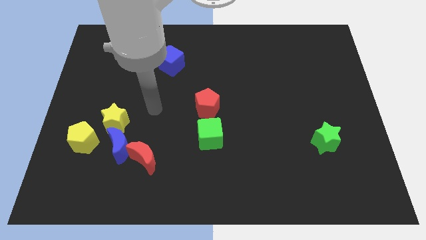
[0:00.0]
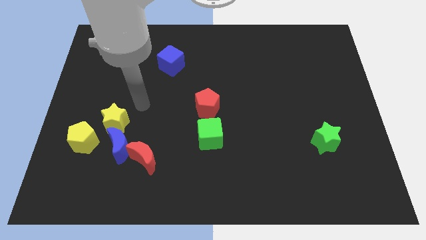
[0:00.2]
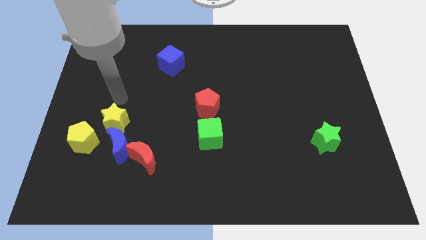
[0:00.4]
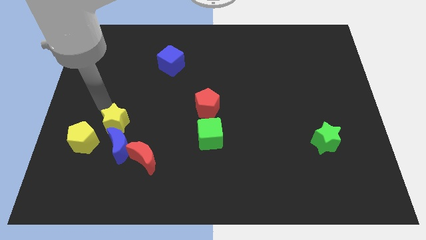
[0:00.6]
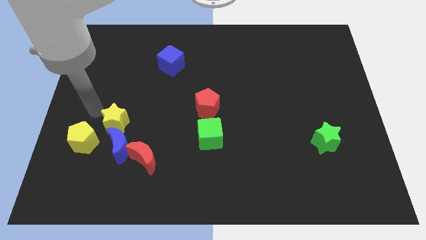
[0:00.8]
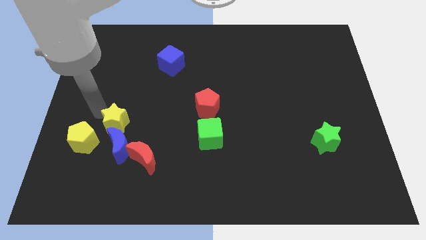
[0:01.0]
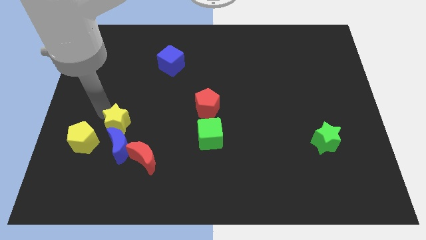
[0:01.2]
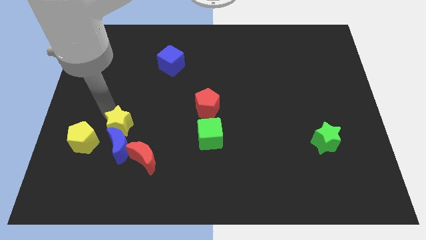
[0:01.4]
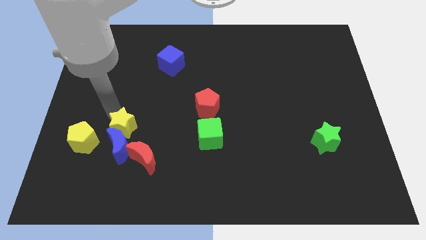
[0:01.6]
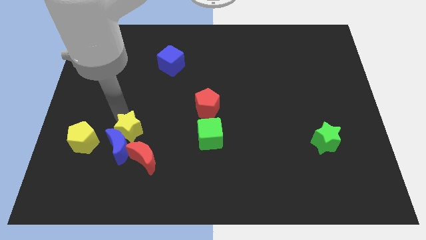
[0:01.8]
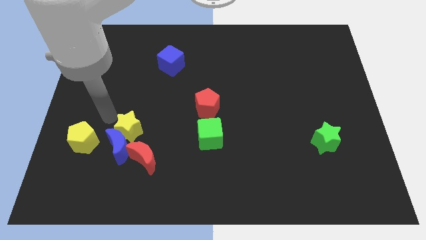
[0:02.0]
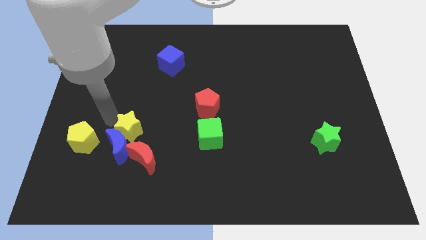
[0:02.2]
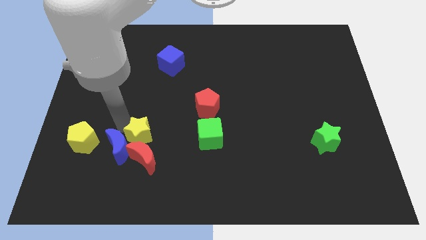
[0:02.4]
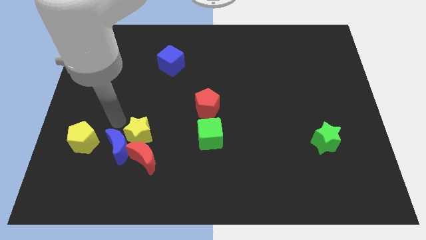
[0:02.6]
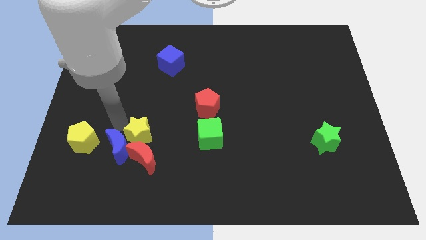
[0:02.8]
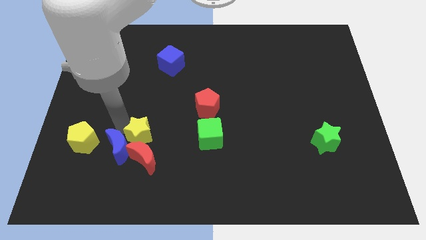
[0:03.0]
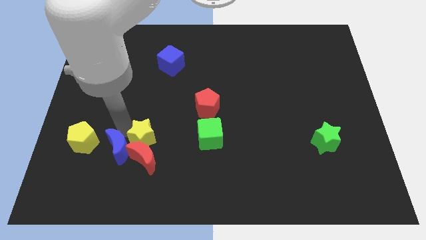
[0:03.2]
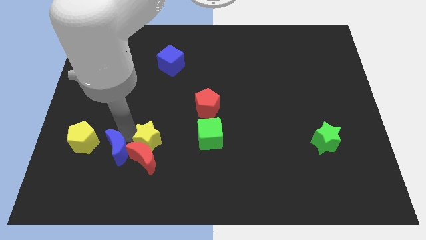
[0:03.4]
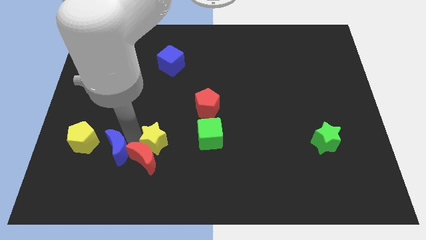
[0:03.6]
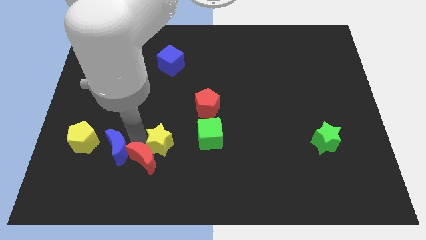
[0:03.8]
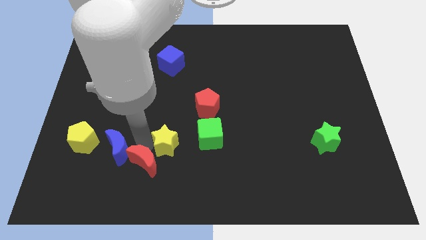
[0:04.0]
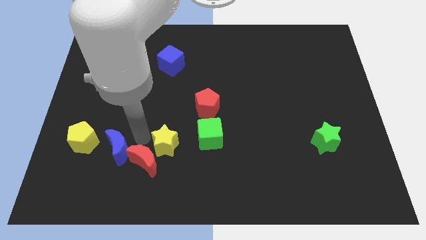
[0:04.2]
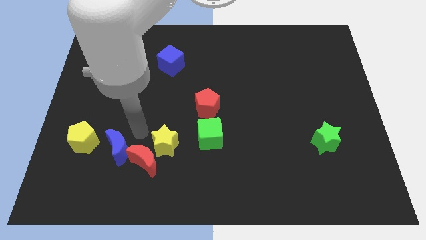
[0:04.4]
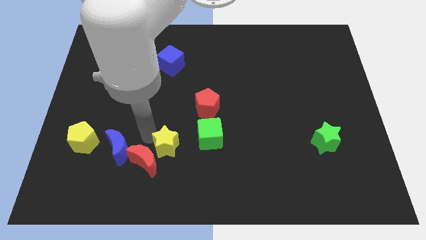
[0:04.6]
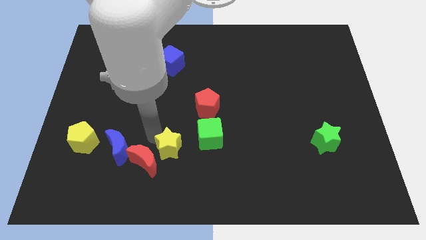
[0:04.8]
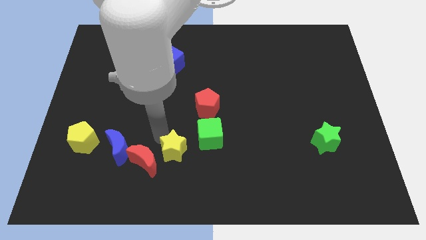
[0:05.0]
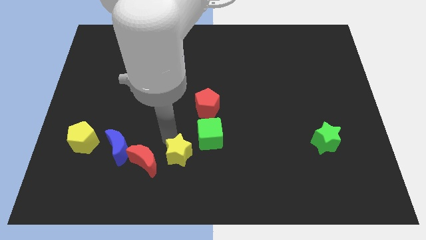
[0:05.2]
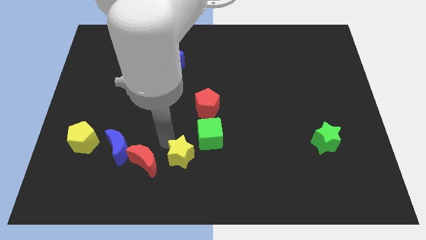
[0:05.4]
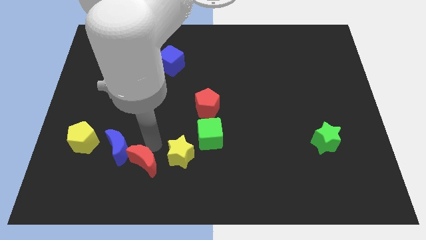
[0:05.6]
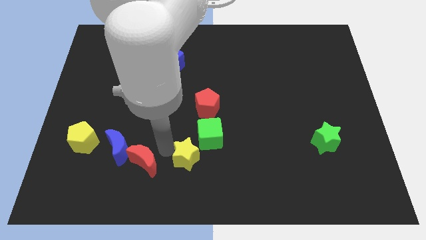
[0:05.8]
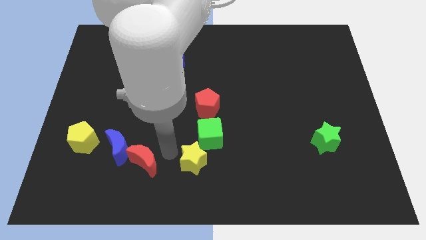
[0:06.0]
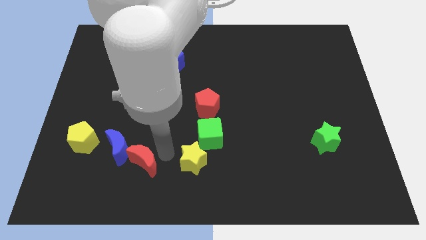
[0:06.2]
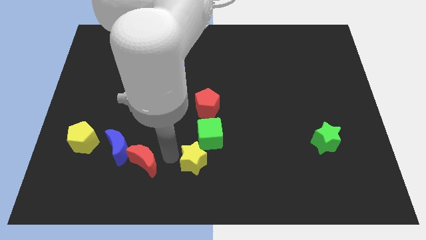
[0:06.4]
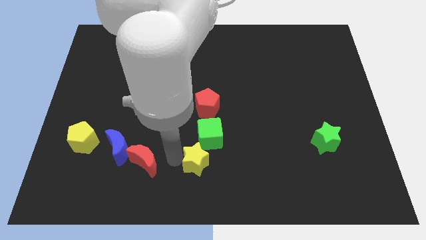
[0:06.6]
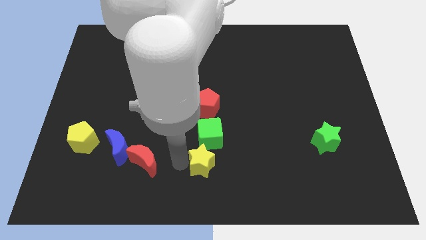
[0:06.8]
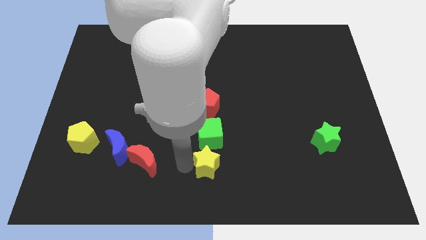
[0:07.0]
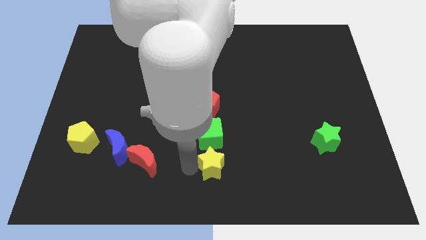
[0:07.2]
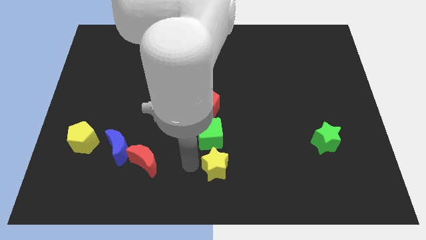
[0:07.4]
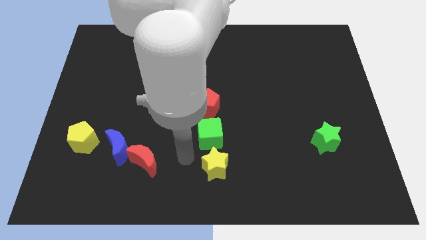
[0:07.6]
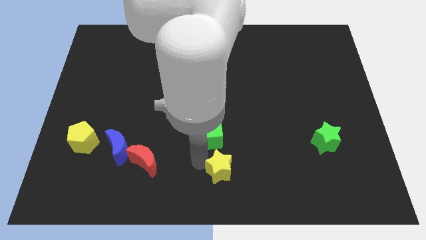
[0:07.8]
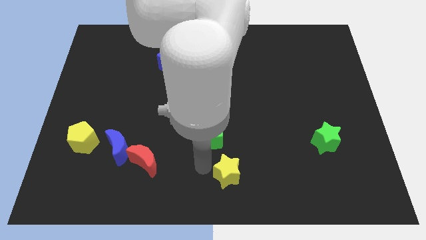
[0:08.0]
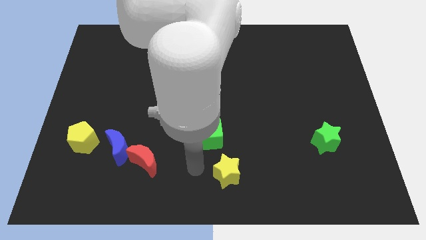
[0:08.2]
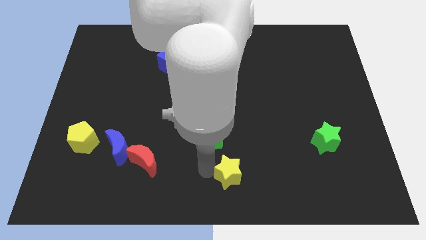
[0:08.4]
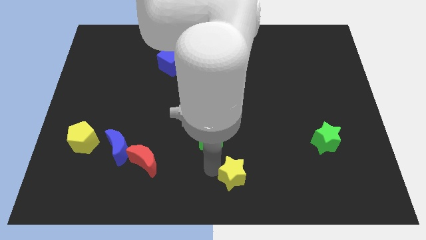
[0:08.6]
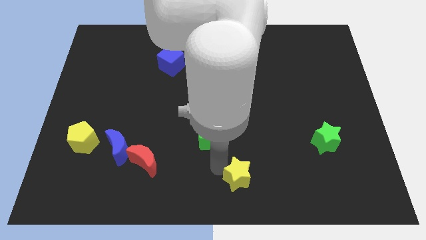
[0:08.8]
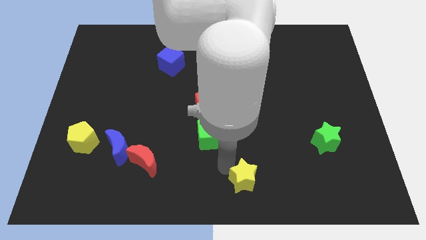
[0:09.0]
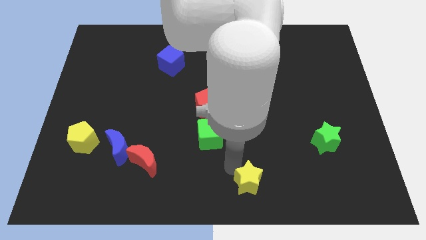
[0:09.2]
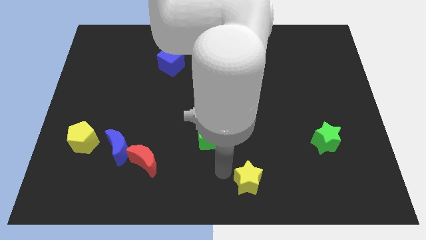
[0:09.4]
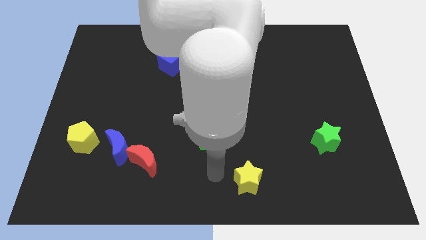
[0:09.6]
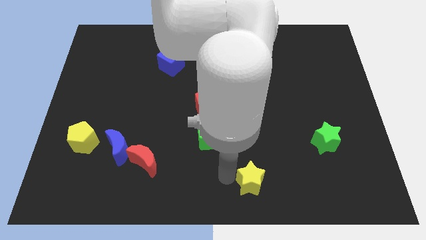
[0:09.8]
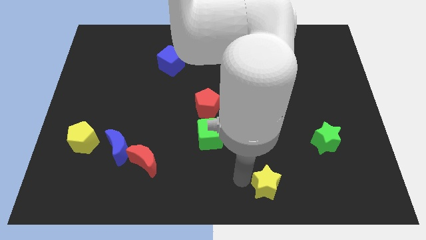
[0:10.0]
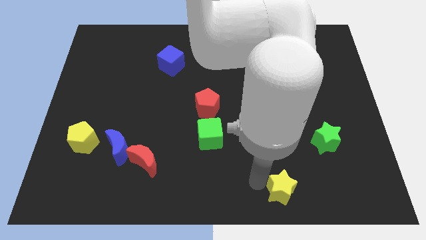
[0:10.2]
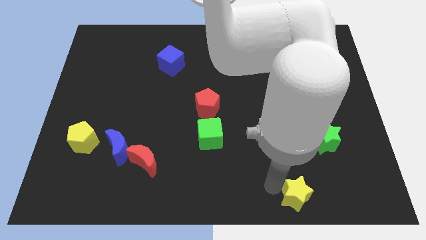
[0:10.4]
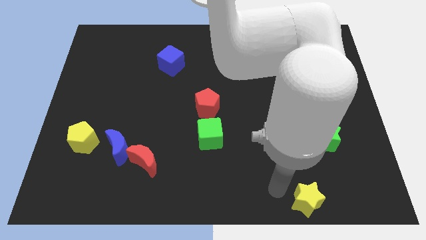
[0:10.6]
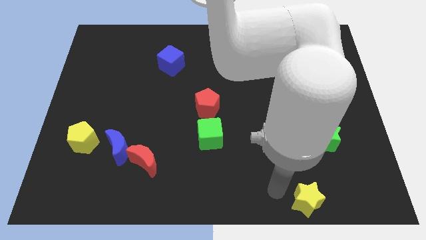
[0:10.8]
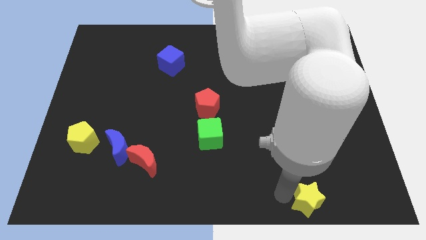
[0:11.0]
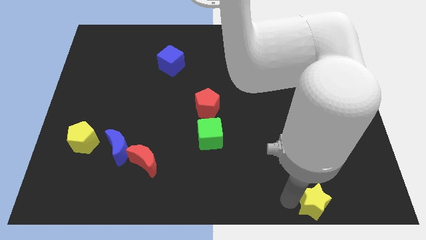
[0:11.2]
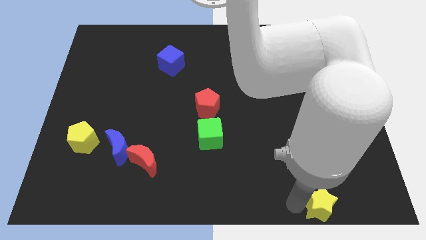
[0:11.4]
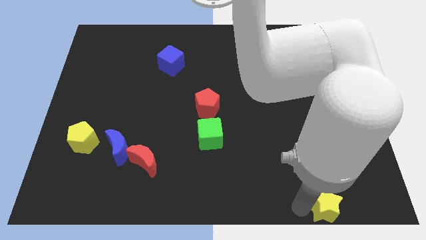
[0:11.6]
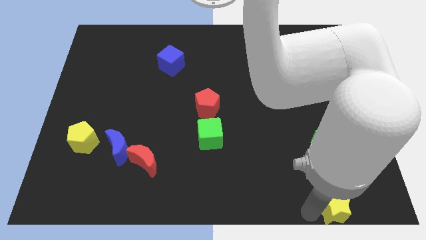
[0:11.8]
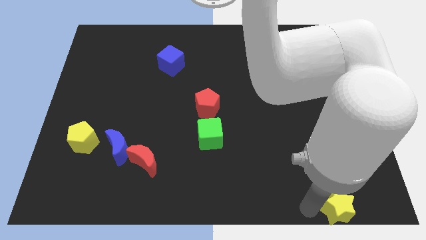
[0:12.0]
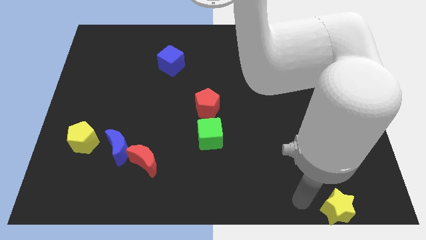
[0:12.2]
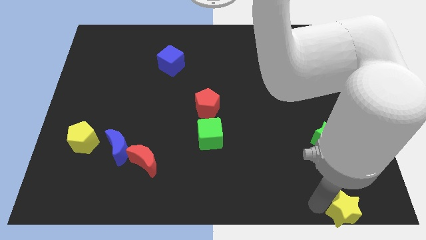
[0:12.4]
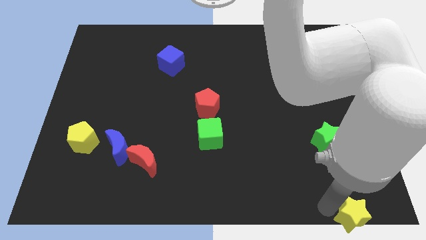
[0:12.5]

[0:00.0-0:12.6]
move the yellow star to the bottom right of the board

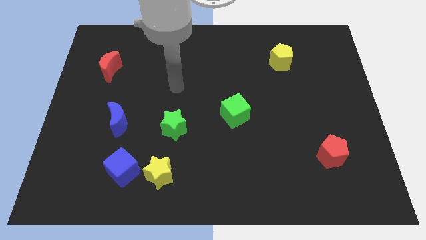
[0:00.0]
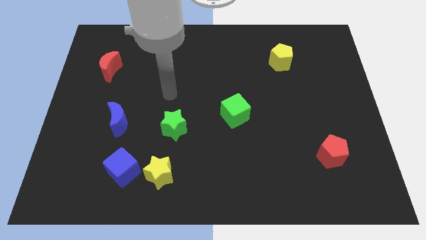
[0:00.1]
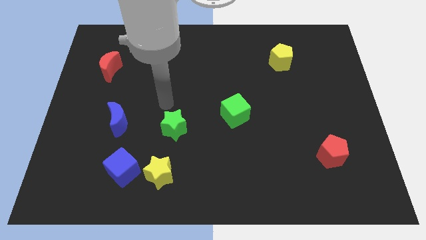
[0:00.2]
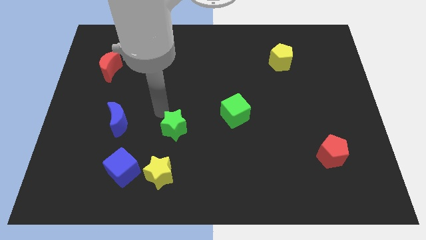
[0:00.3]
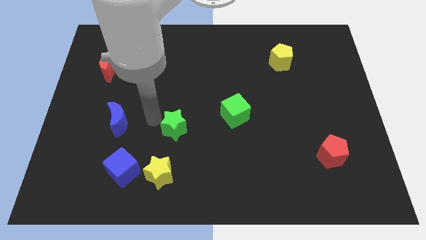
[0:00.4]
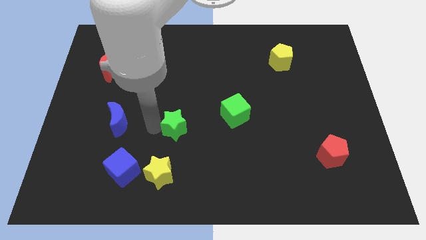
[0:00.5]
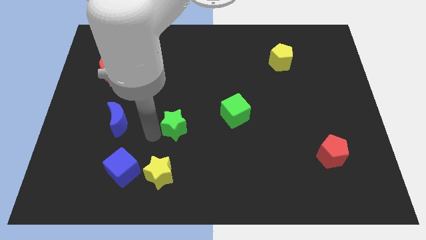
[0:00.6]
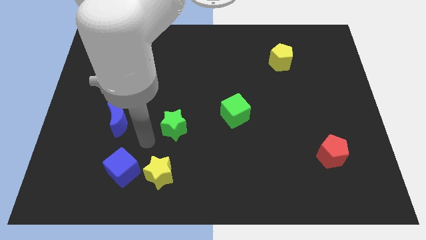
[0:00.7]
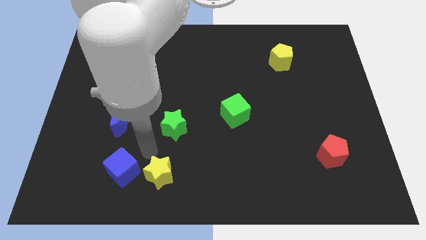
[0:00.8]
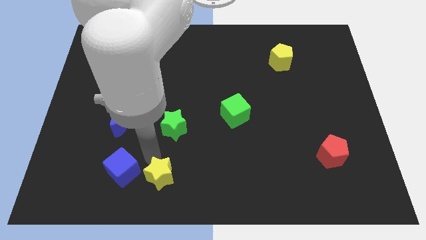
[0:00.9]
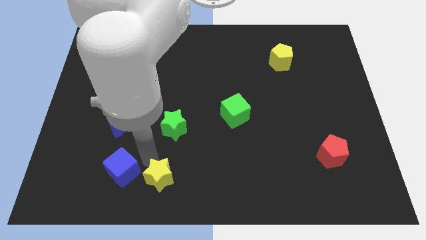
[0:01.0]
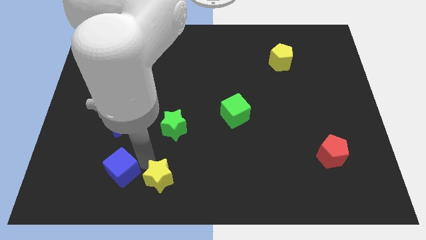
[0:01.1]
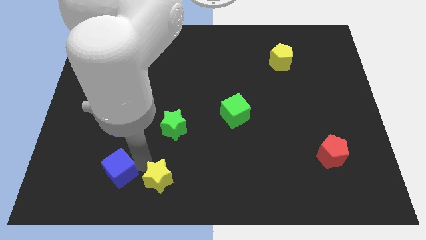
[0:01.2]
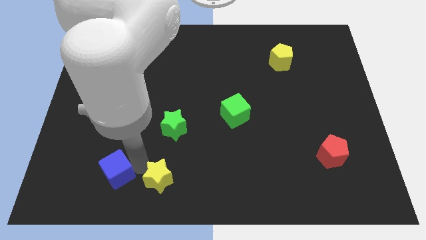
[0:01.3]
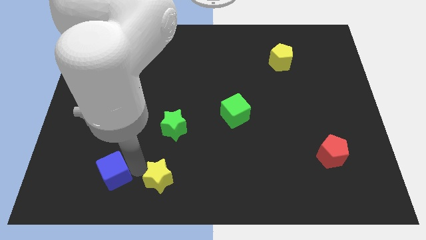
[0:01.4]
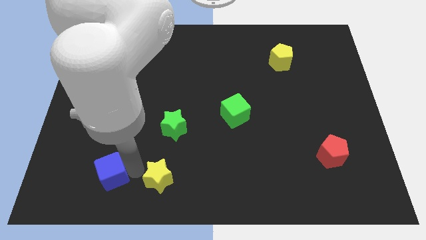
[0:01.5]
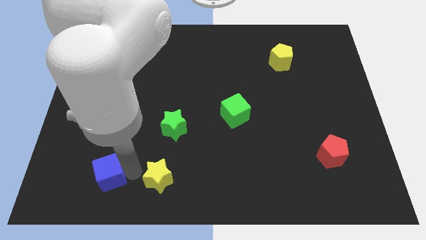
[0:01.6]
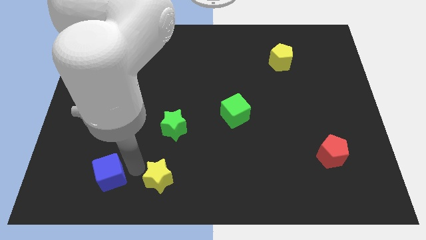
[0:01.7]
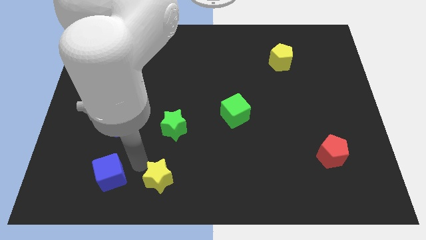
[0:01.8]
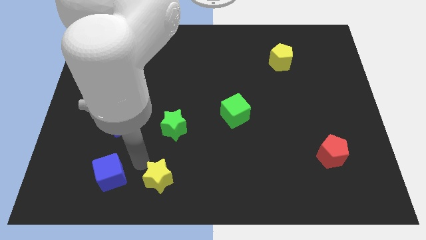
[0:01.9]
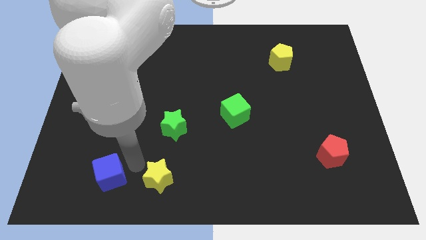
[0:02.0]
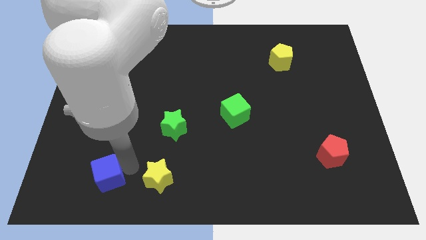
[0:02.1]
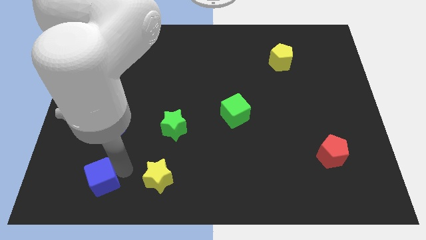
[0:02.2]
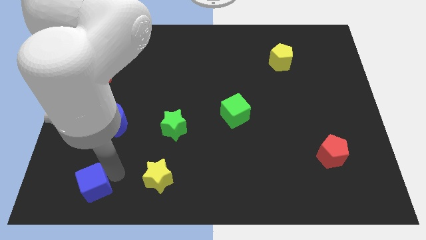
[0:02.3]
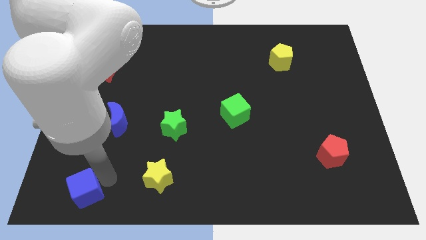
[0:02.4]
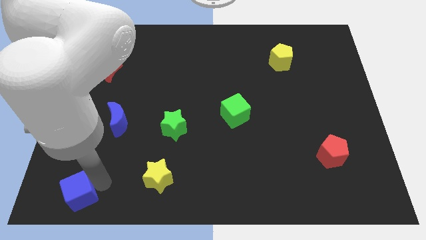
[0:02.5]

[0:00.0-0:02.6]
put the blue cube to the bottom left of the board
